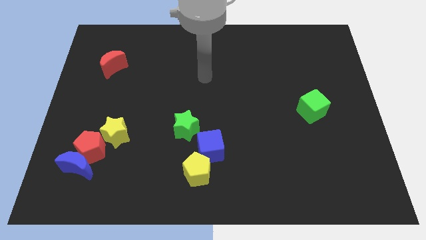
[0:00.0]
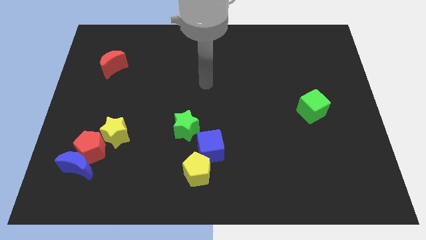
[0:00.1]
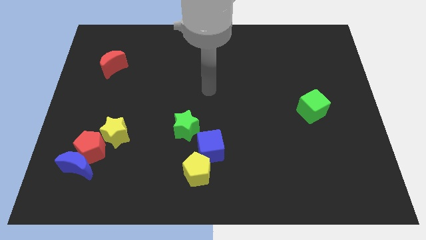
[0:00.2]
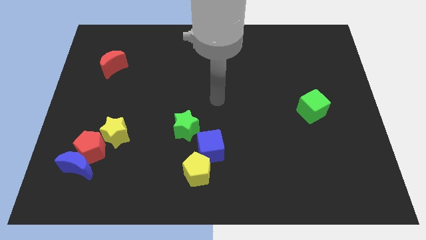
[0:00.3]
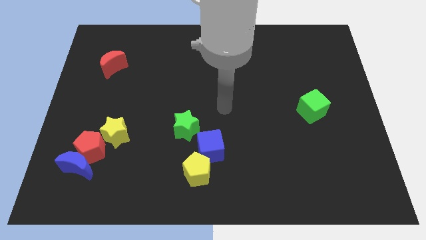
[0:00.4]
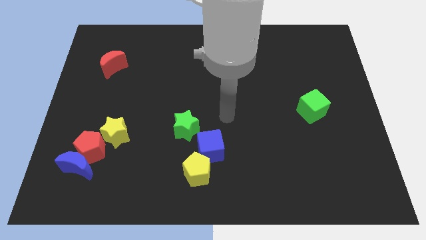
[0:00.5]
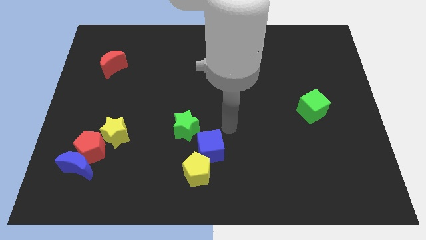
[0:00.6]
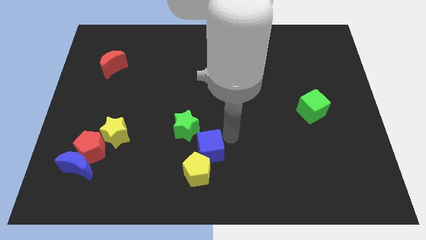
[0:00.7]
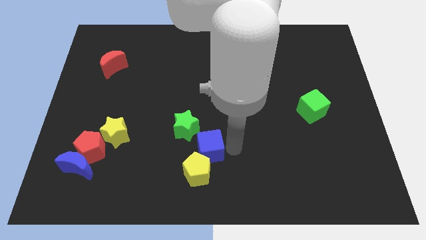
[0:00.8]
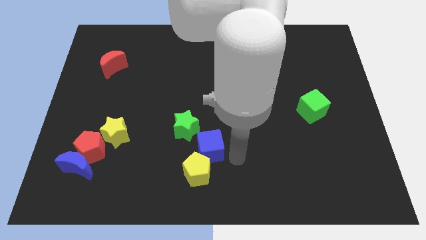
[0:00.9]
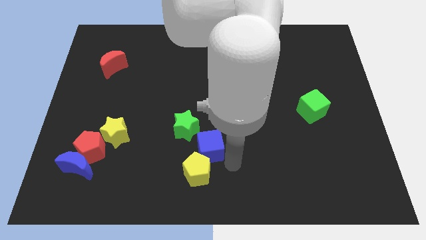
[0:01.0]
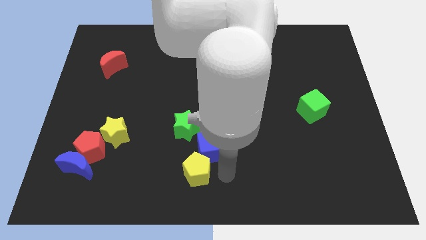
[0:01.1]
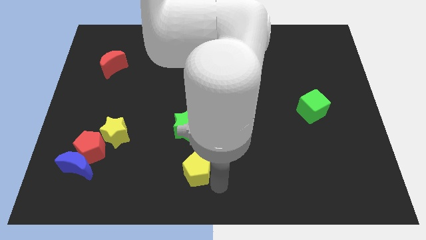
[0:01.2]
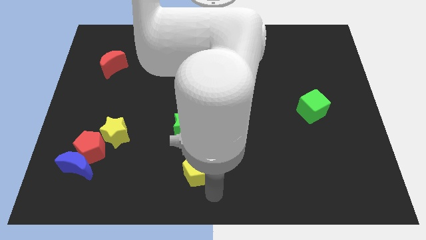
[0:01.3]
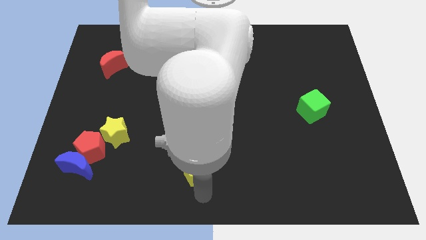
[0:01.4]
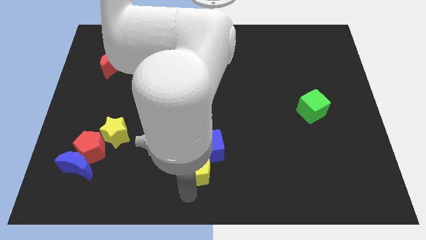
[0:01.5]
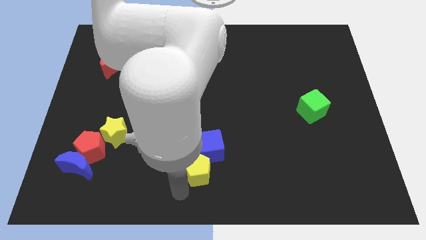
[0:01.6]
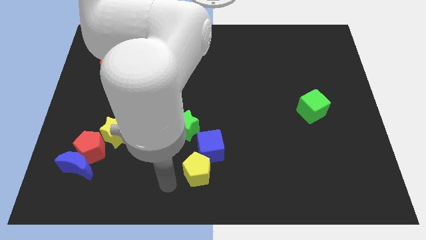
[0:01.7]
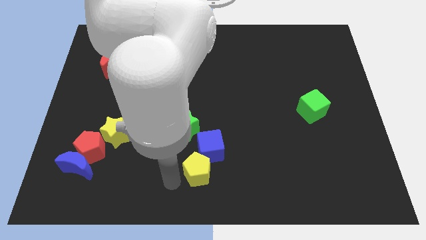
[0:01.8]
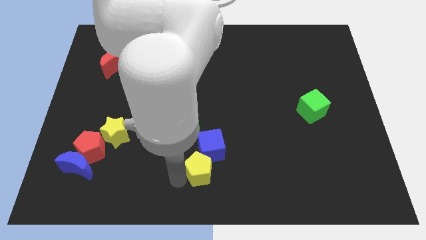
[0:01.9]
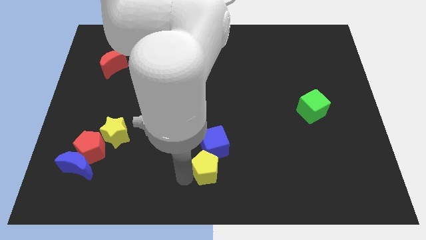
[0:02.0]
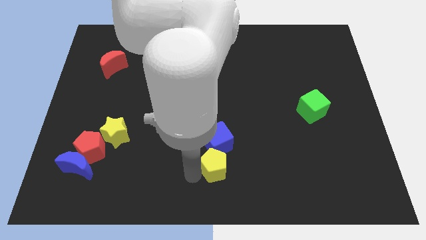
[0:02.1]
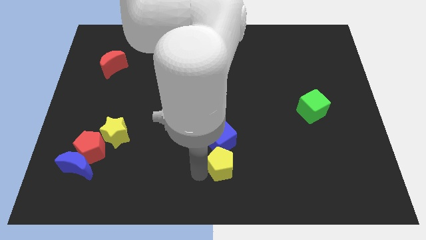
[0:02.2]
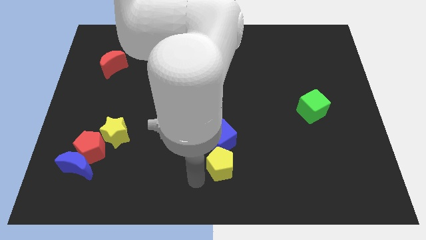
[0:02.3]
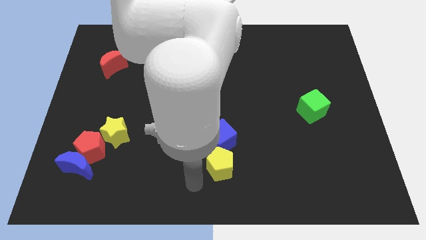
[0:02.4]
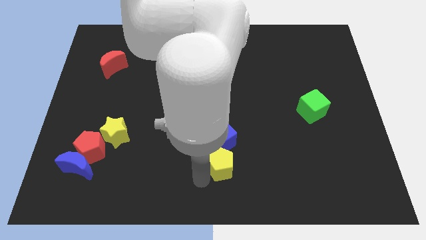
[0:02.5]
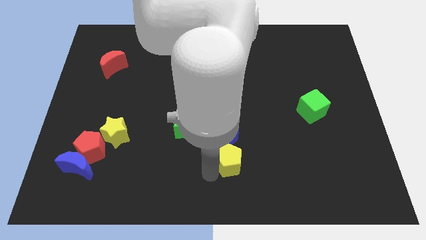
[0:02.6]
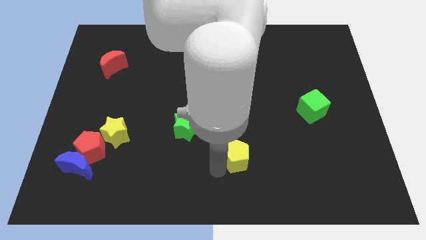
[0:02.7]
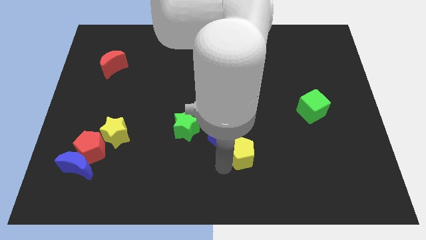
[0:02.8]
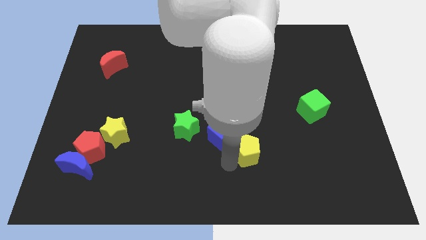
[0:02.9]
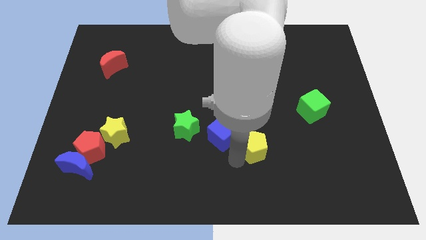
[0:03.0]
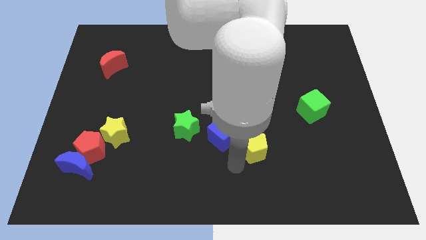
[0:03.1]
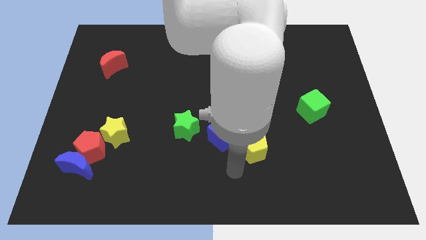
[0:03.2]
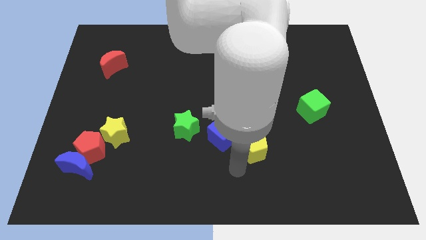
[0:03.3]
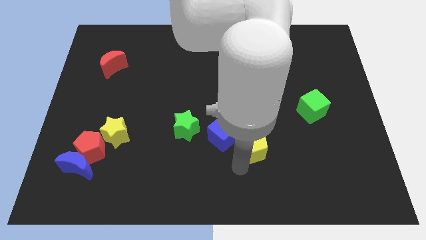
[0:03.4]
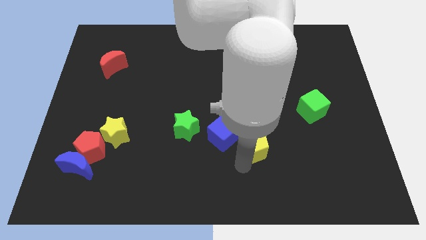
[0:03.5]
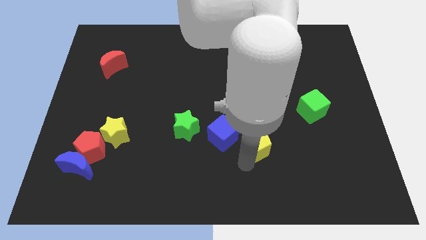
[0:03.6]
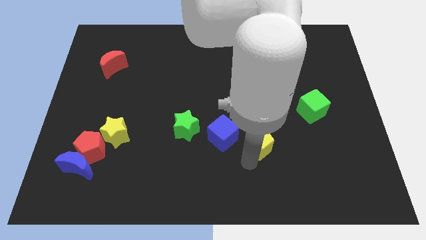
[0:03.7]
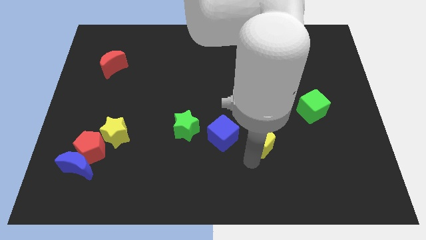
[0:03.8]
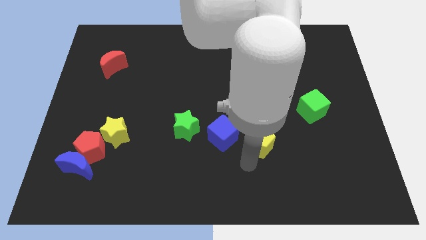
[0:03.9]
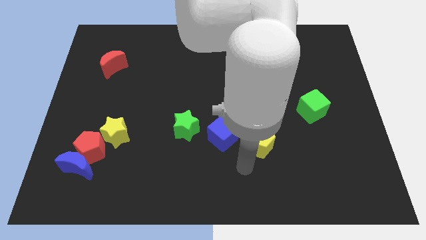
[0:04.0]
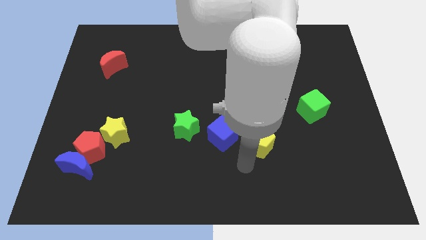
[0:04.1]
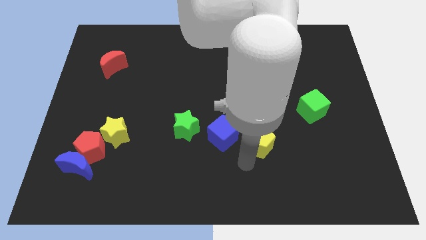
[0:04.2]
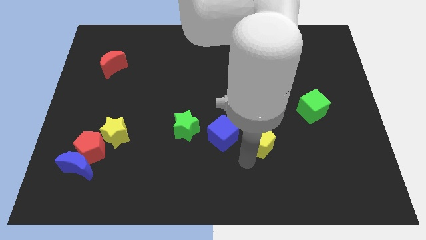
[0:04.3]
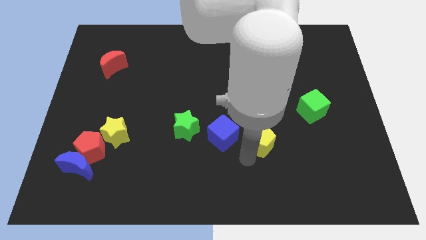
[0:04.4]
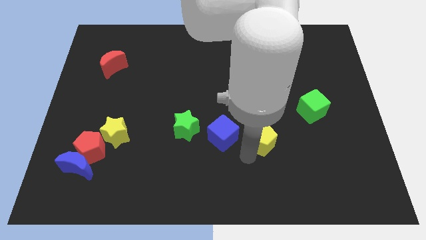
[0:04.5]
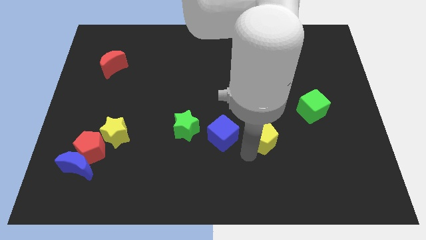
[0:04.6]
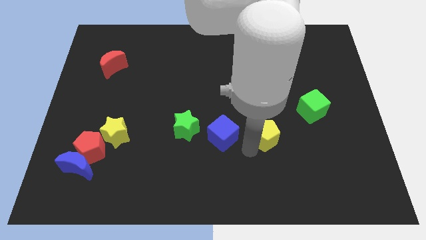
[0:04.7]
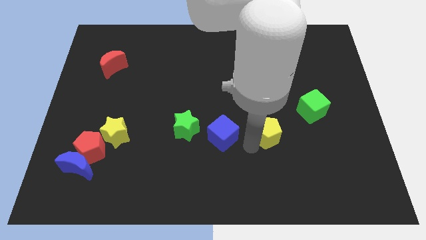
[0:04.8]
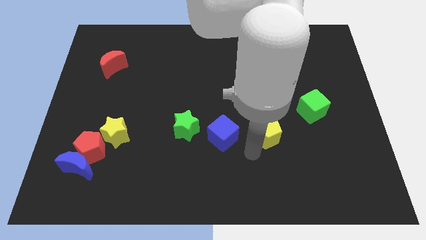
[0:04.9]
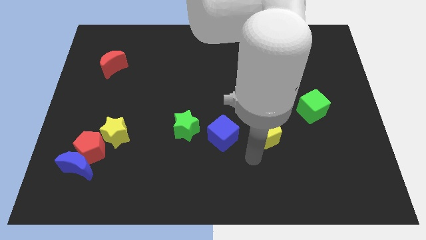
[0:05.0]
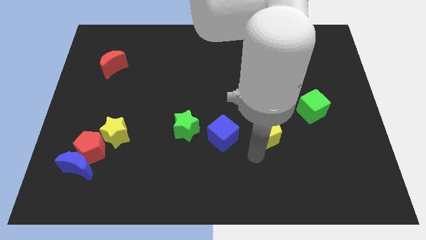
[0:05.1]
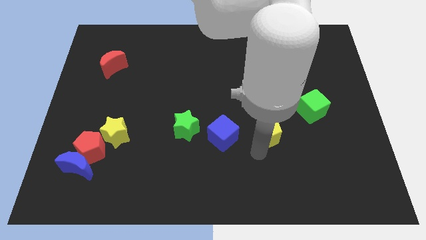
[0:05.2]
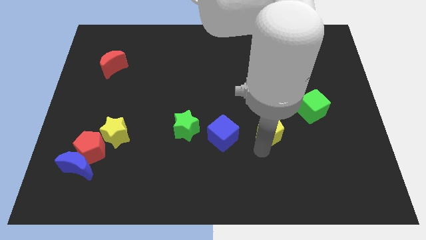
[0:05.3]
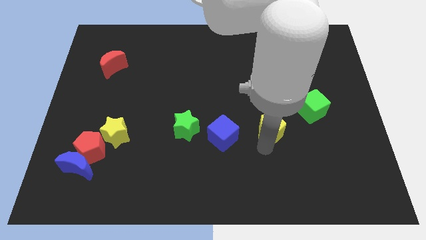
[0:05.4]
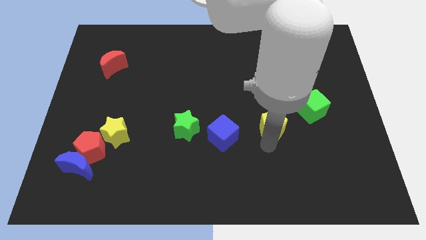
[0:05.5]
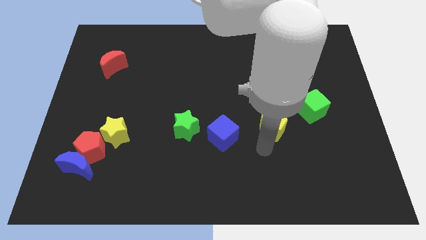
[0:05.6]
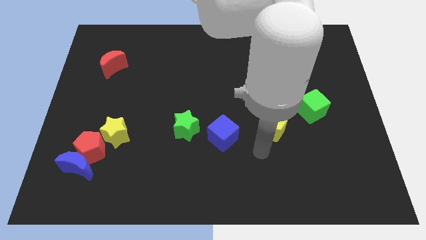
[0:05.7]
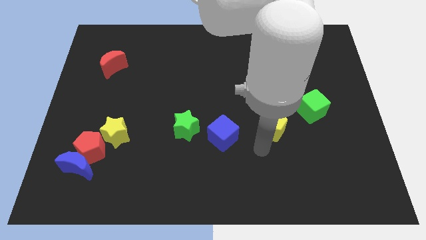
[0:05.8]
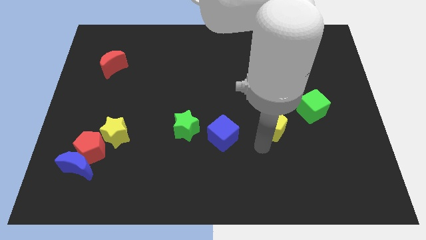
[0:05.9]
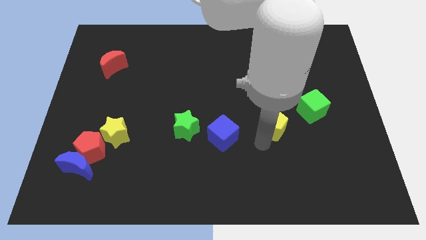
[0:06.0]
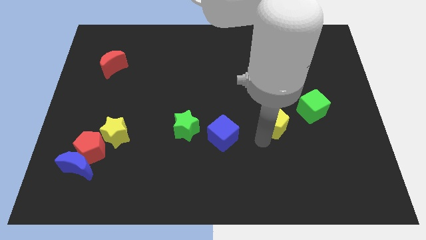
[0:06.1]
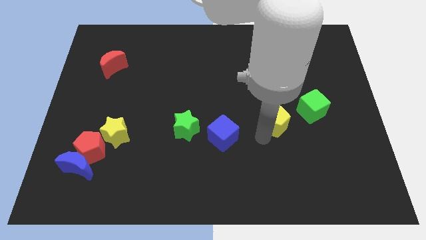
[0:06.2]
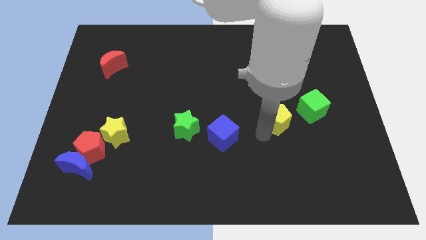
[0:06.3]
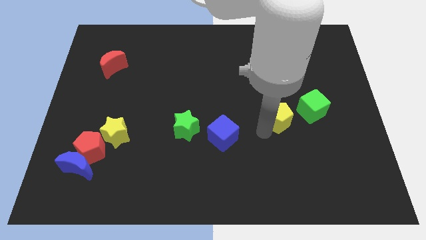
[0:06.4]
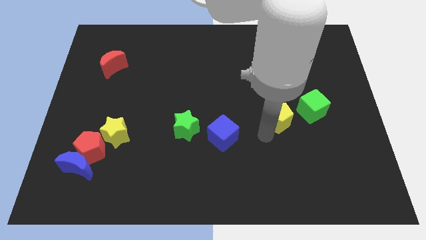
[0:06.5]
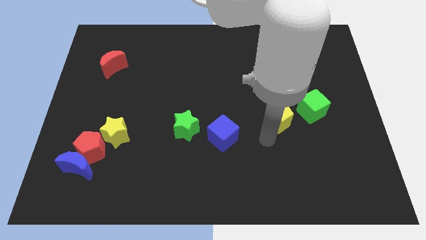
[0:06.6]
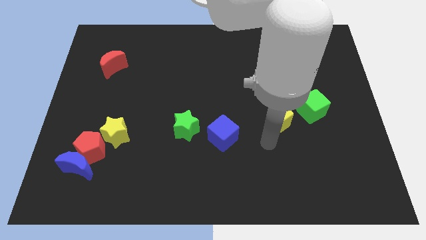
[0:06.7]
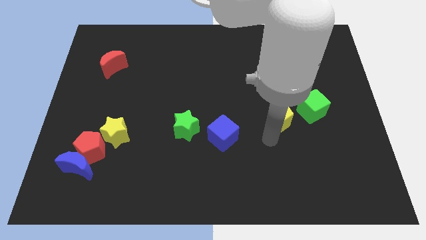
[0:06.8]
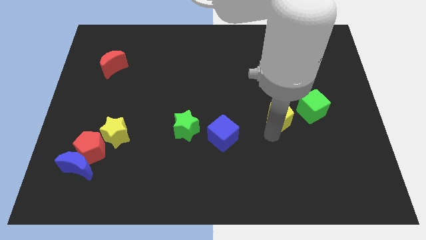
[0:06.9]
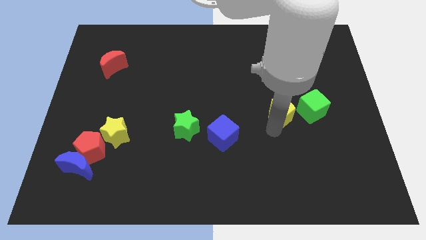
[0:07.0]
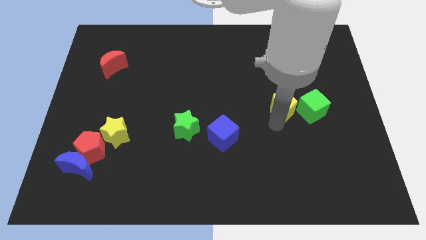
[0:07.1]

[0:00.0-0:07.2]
slide the yellow pentagon to the top left of the green cube
